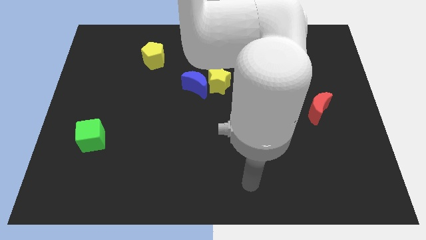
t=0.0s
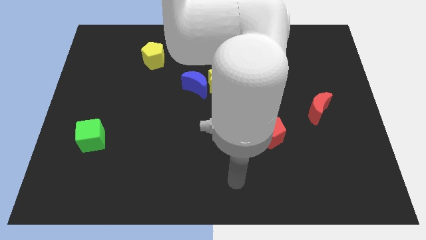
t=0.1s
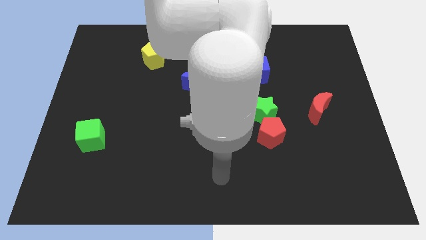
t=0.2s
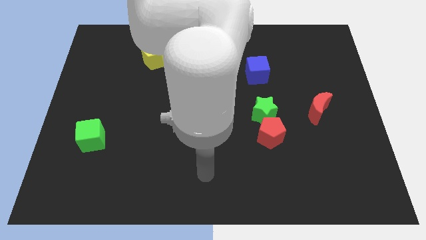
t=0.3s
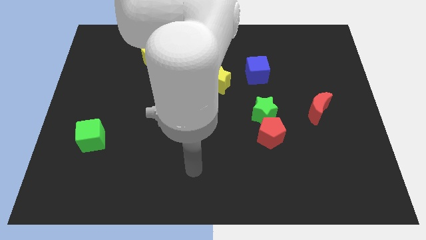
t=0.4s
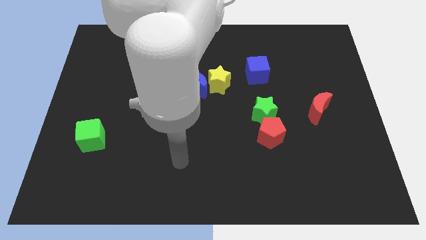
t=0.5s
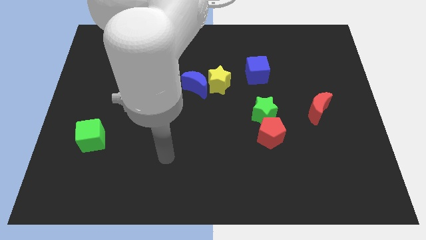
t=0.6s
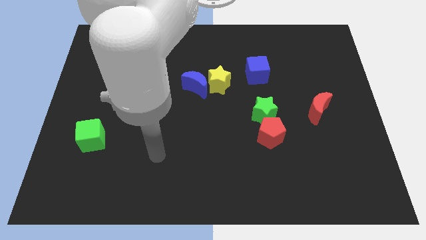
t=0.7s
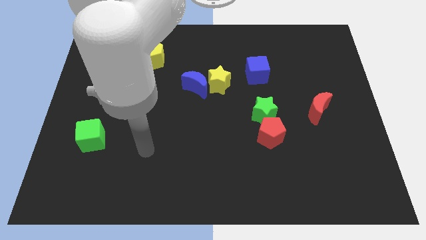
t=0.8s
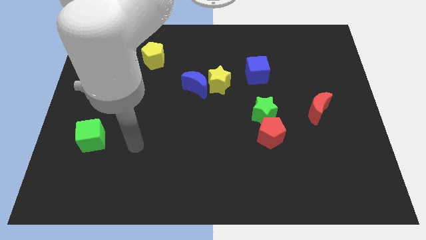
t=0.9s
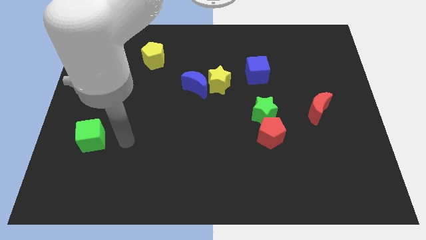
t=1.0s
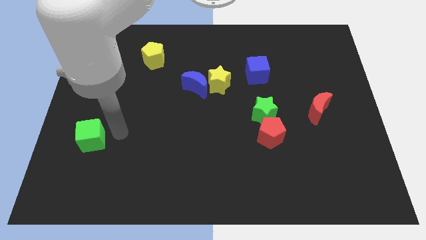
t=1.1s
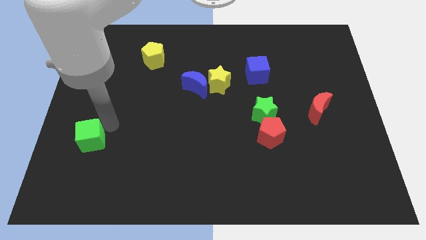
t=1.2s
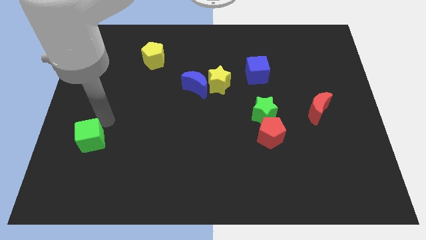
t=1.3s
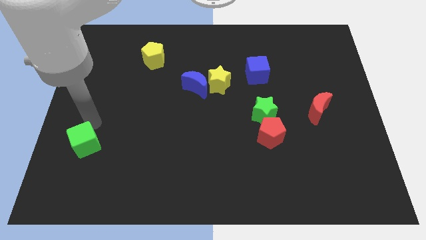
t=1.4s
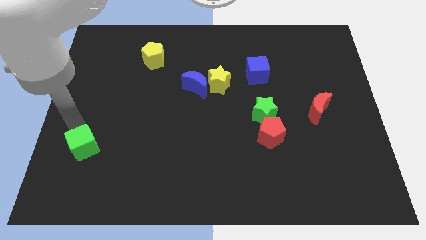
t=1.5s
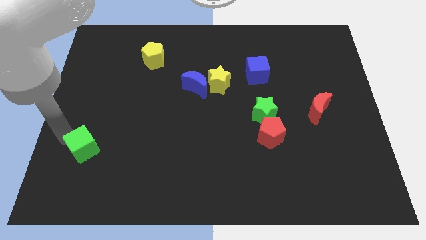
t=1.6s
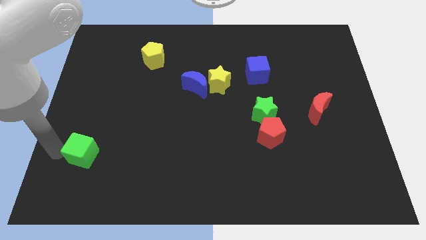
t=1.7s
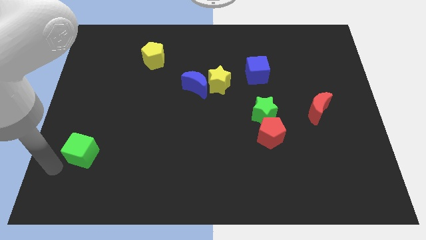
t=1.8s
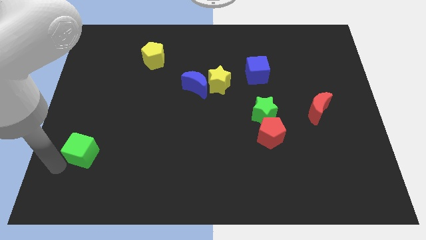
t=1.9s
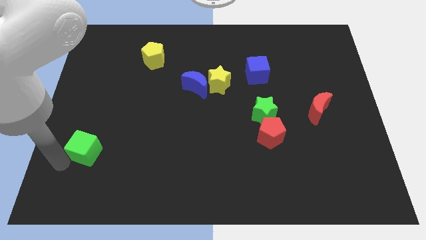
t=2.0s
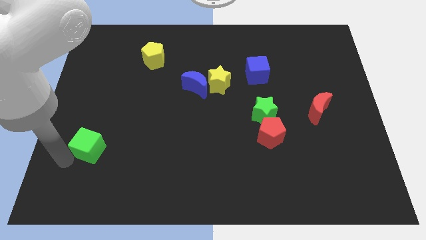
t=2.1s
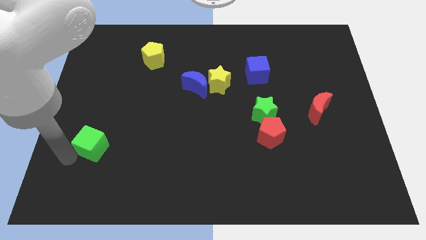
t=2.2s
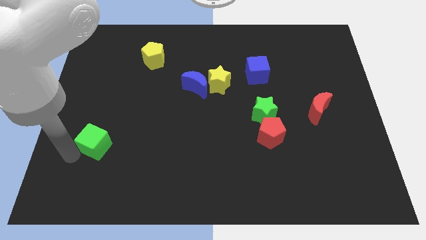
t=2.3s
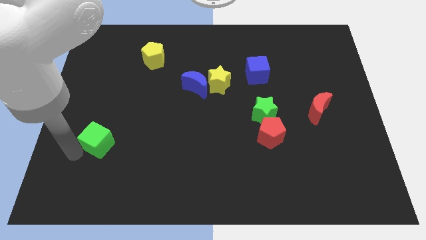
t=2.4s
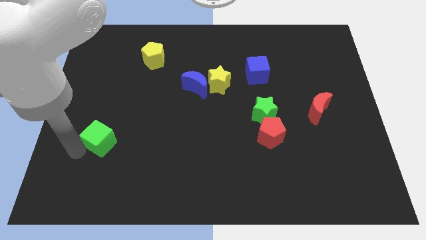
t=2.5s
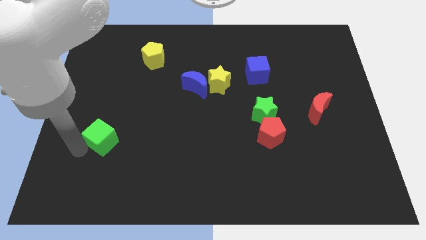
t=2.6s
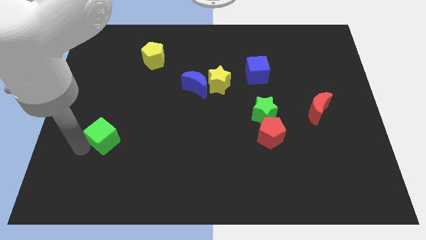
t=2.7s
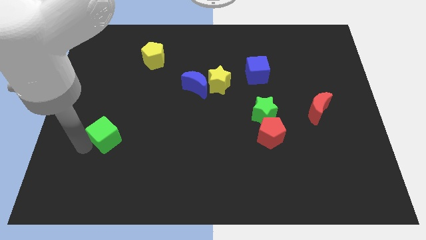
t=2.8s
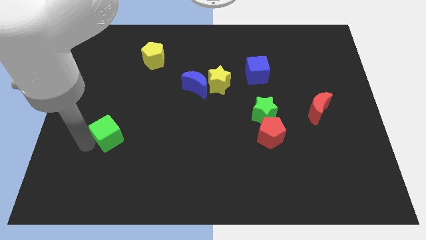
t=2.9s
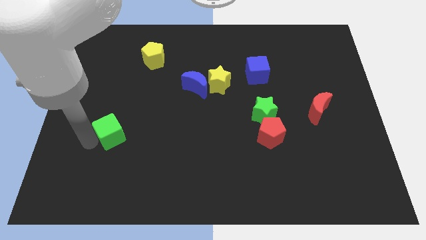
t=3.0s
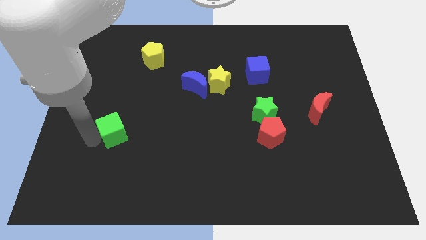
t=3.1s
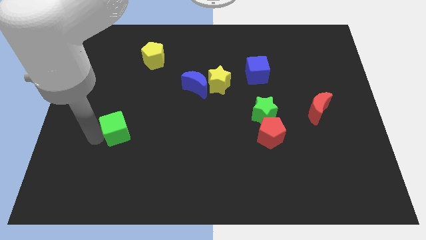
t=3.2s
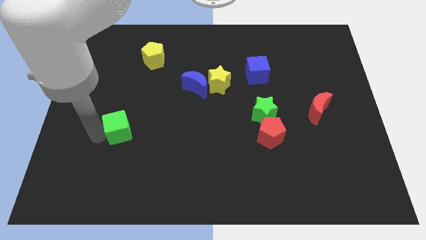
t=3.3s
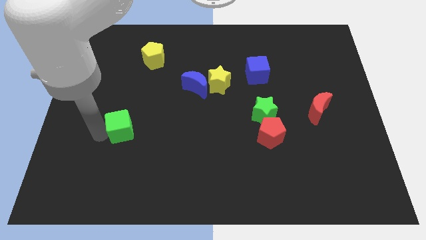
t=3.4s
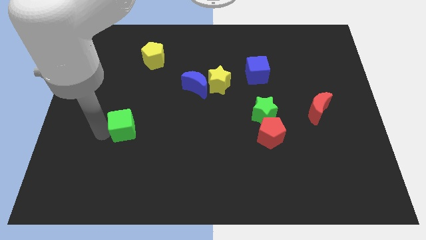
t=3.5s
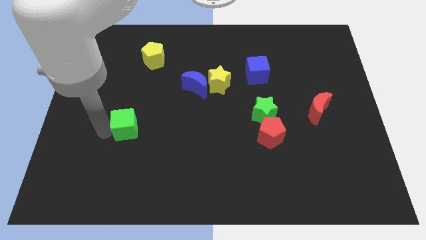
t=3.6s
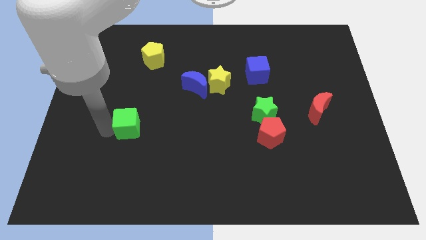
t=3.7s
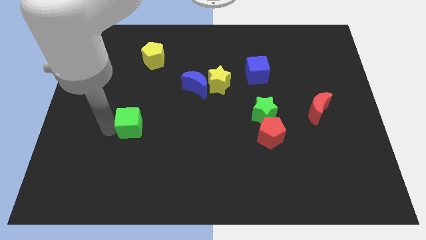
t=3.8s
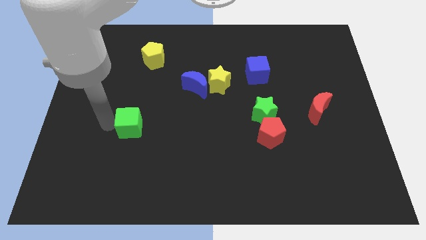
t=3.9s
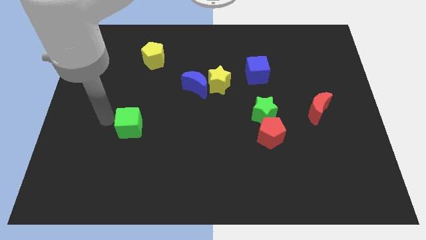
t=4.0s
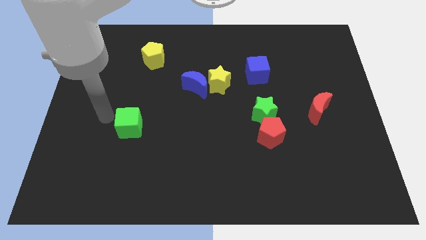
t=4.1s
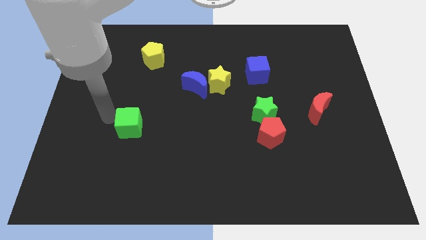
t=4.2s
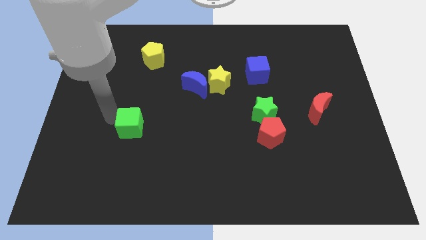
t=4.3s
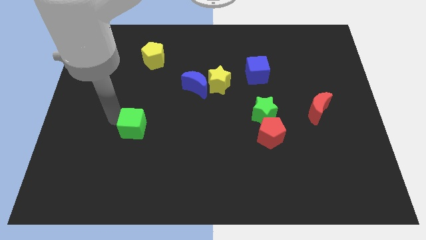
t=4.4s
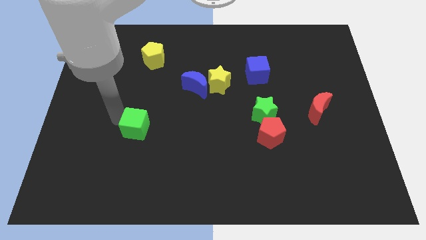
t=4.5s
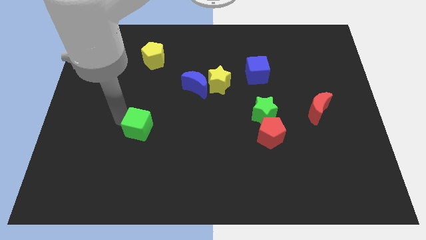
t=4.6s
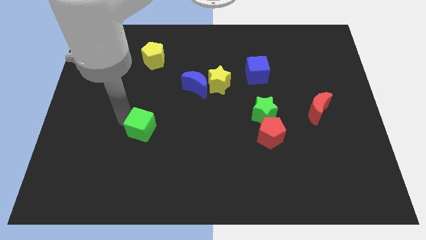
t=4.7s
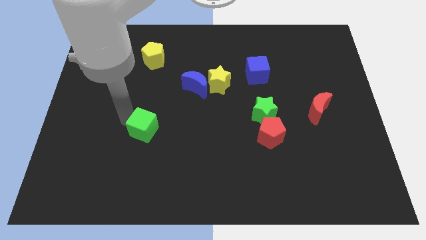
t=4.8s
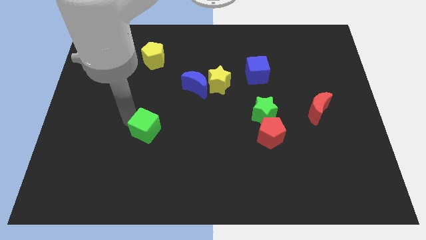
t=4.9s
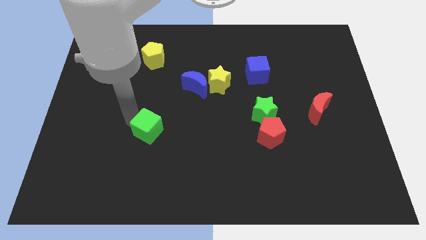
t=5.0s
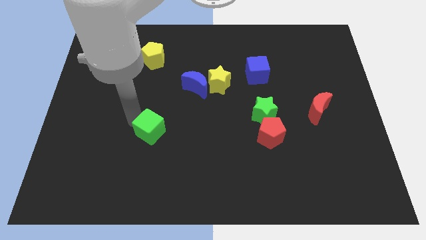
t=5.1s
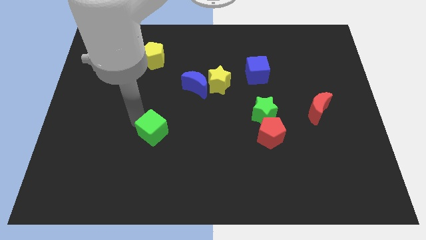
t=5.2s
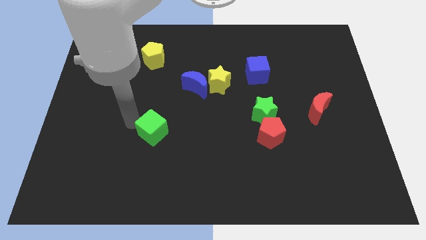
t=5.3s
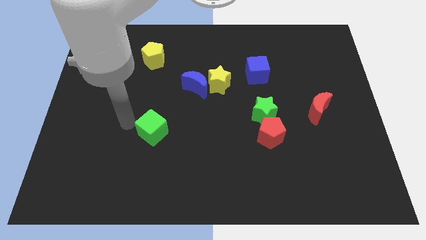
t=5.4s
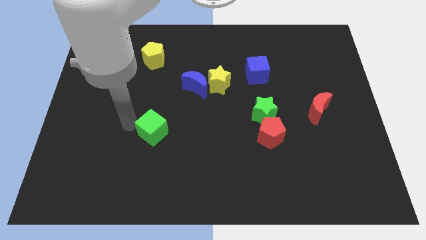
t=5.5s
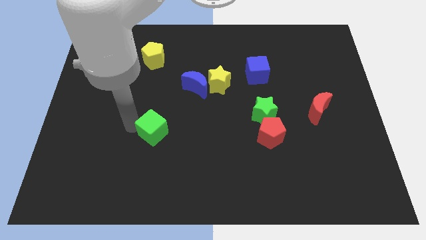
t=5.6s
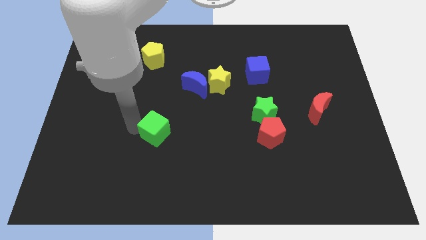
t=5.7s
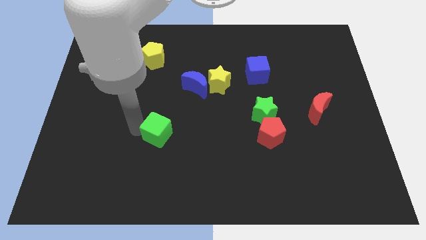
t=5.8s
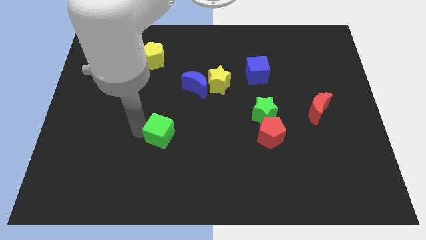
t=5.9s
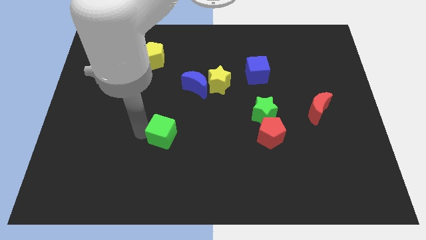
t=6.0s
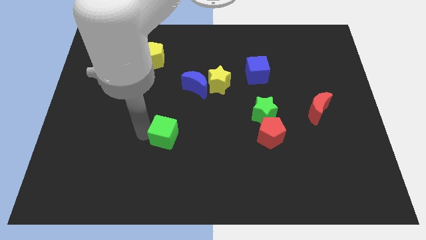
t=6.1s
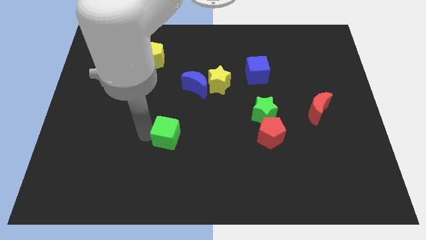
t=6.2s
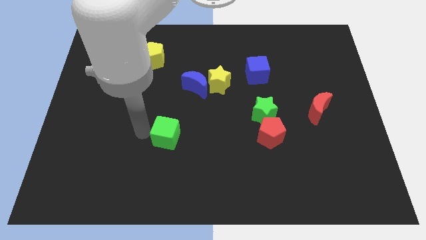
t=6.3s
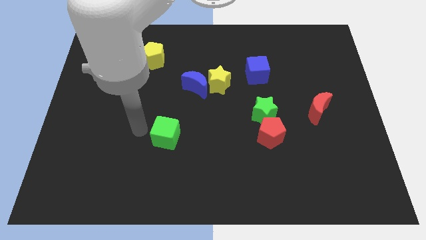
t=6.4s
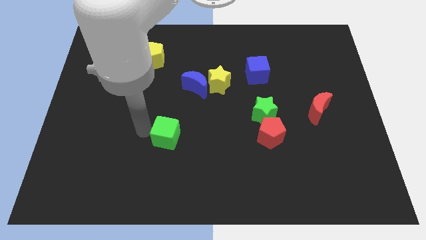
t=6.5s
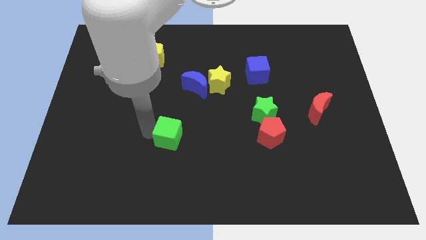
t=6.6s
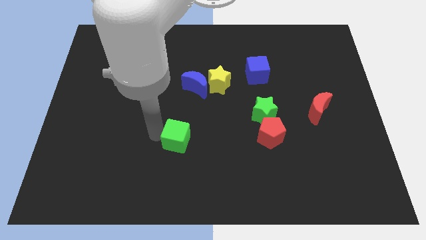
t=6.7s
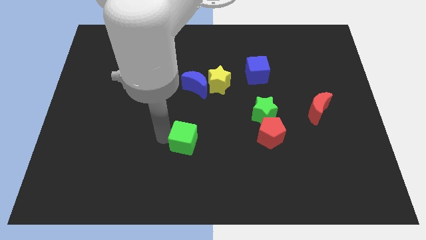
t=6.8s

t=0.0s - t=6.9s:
slide the green cube right

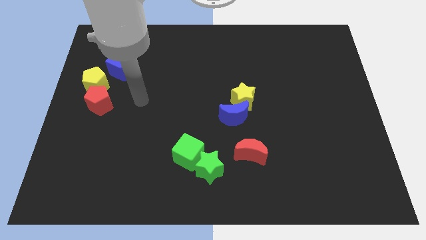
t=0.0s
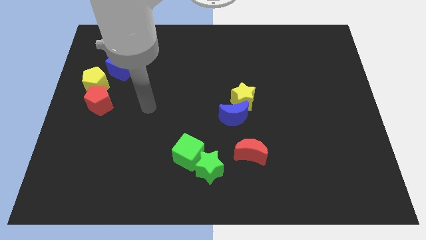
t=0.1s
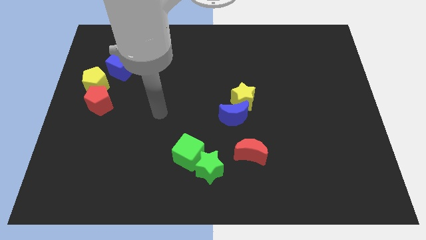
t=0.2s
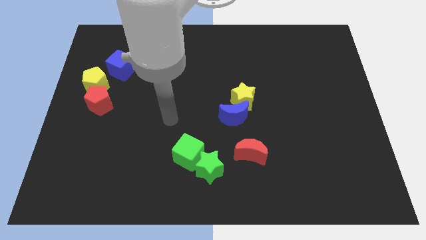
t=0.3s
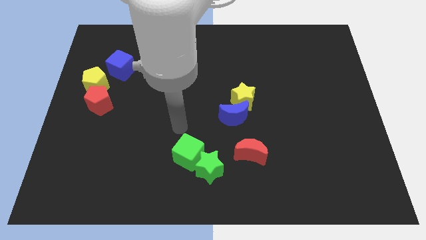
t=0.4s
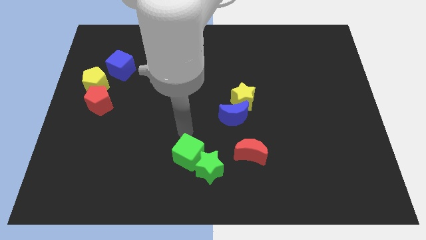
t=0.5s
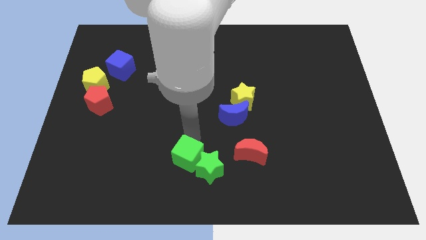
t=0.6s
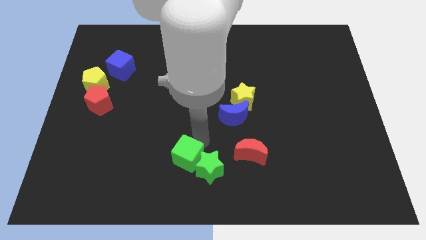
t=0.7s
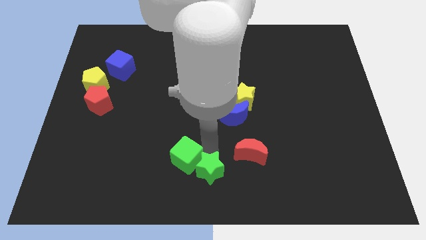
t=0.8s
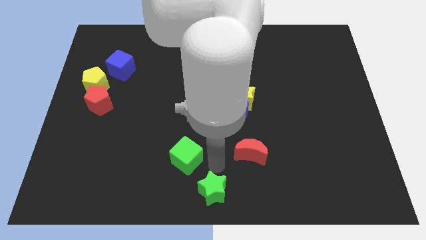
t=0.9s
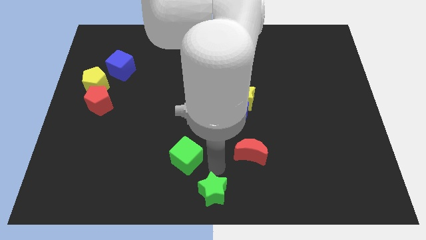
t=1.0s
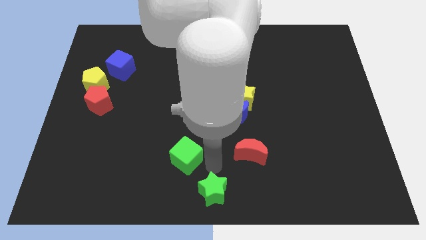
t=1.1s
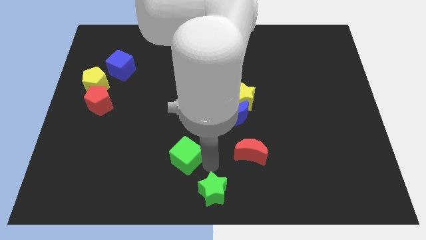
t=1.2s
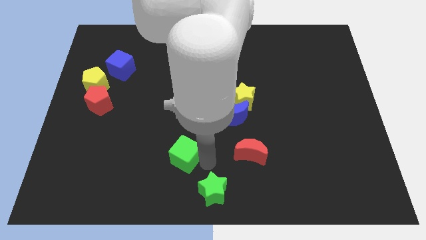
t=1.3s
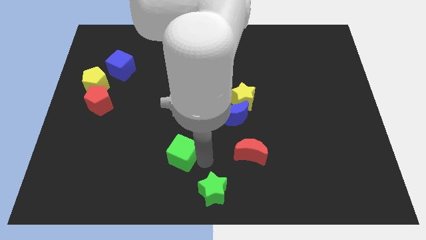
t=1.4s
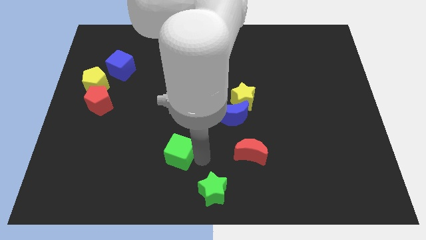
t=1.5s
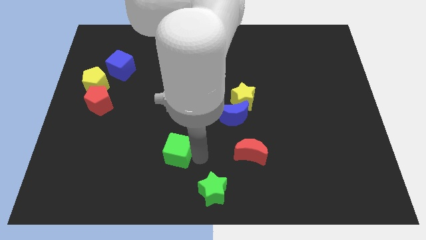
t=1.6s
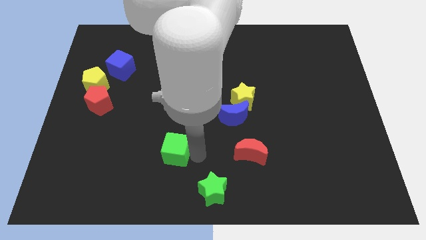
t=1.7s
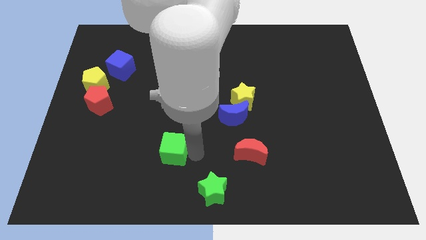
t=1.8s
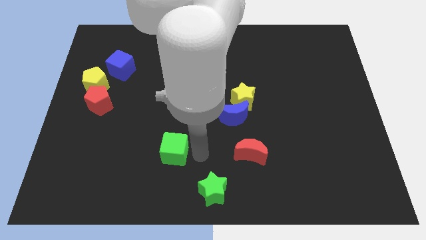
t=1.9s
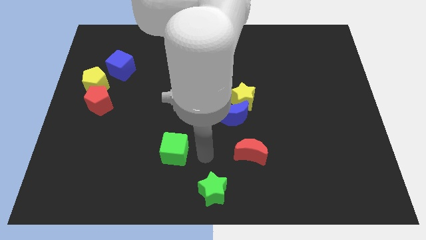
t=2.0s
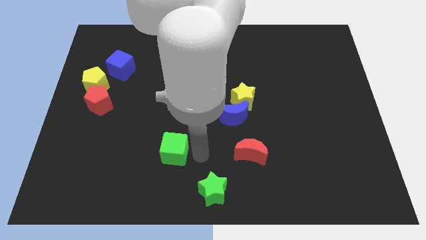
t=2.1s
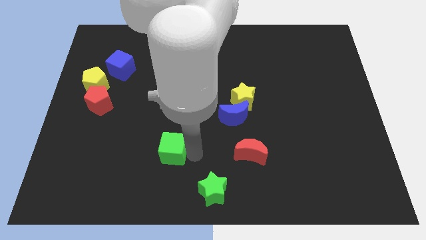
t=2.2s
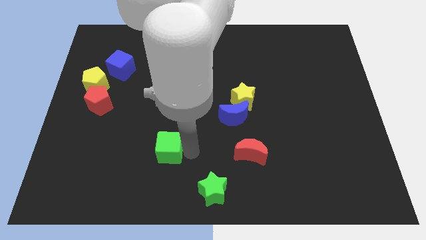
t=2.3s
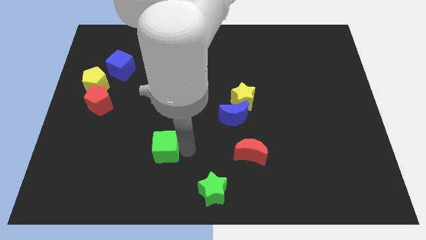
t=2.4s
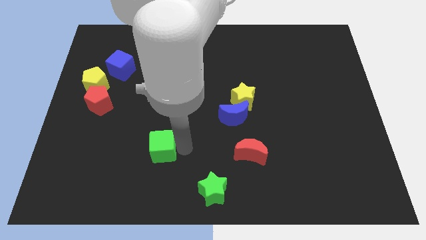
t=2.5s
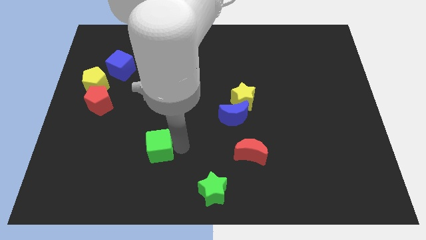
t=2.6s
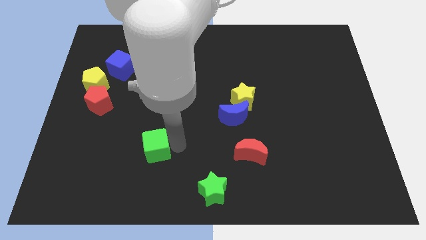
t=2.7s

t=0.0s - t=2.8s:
slightly move the green cube left
